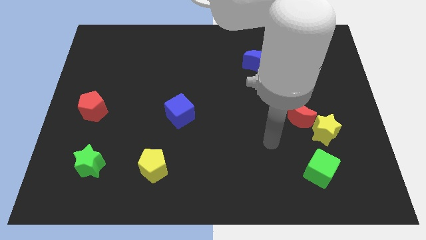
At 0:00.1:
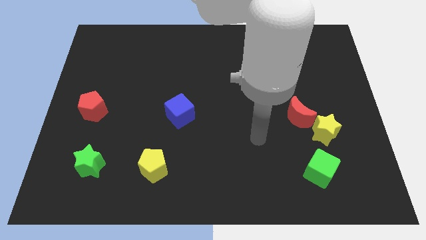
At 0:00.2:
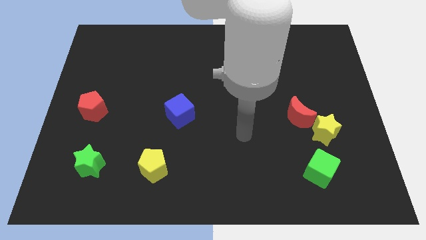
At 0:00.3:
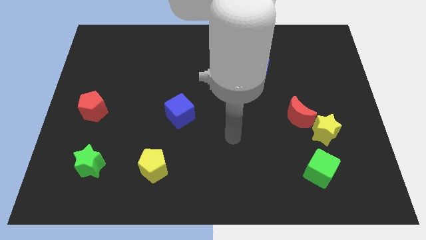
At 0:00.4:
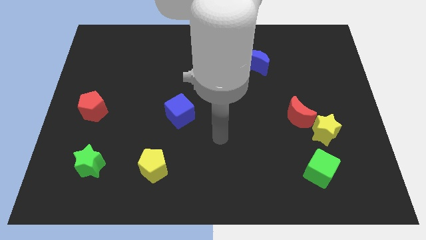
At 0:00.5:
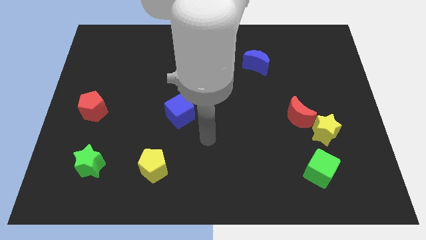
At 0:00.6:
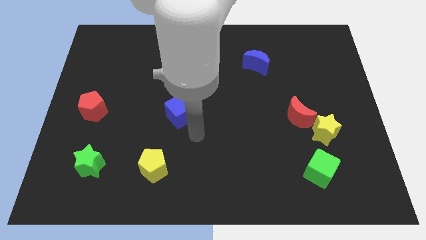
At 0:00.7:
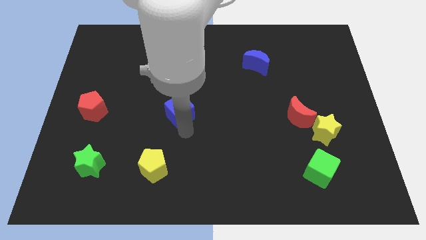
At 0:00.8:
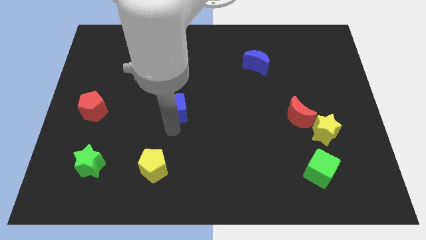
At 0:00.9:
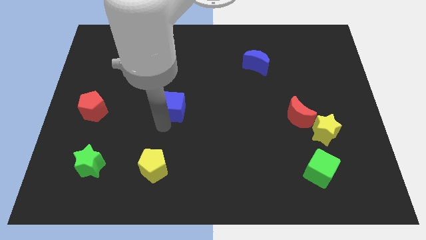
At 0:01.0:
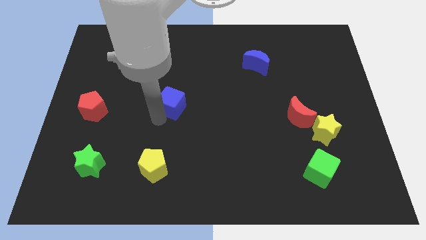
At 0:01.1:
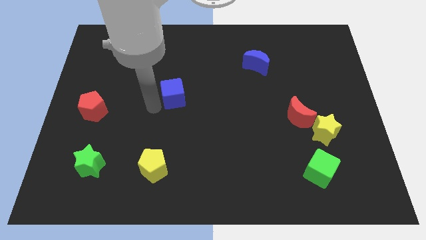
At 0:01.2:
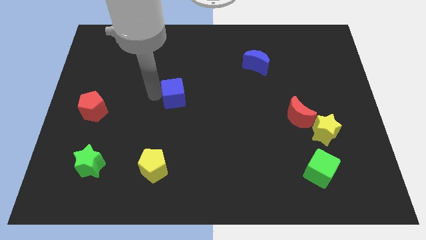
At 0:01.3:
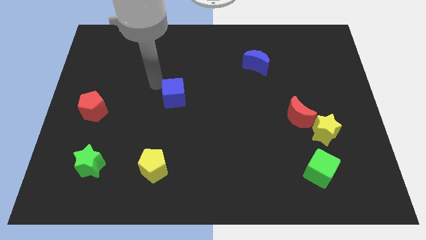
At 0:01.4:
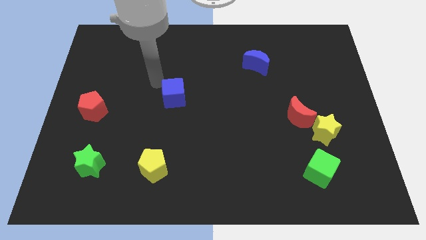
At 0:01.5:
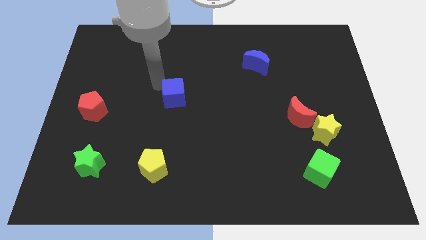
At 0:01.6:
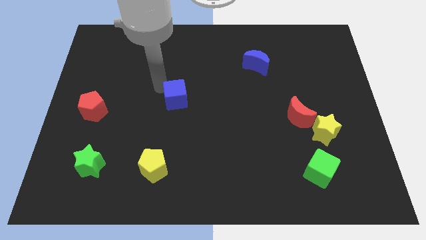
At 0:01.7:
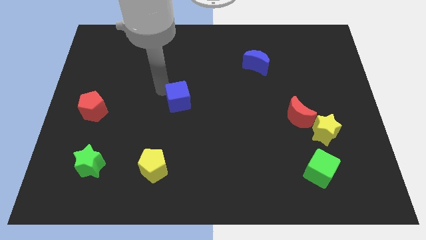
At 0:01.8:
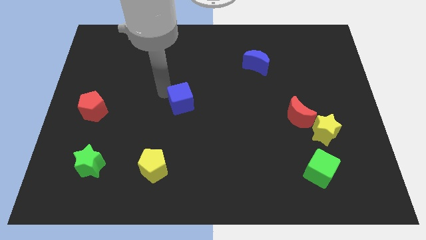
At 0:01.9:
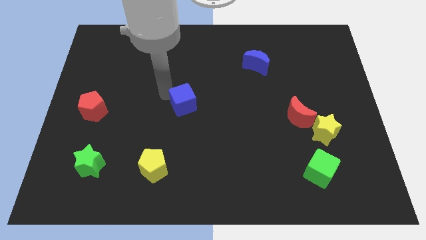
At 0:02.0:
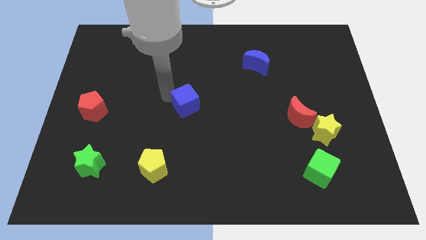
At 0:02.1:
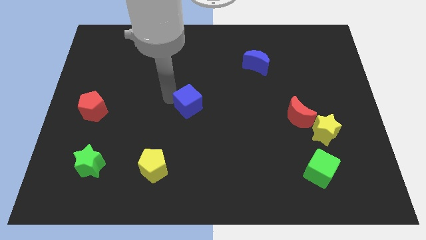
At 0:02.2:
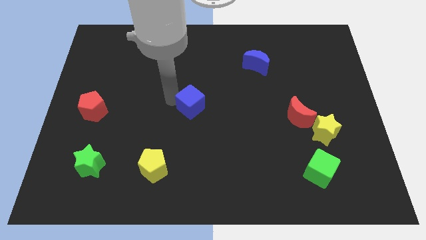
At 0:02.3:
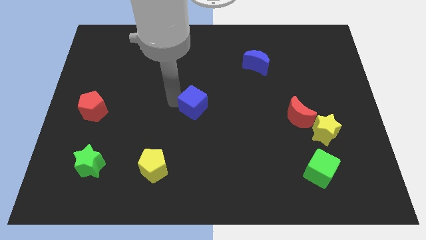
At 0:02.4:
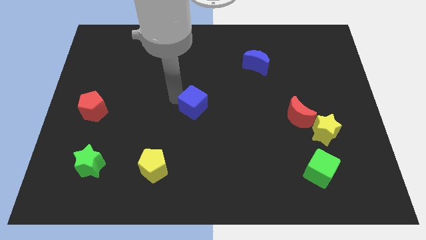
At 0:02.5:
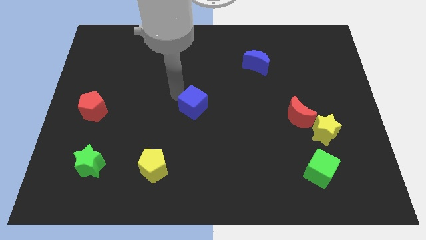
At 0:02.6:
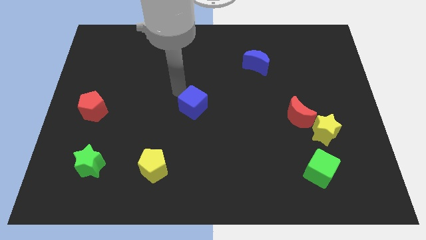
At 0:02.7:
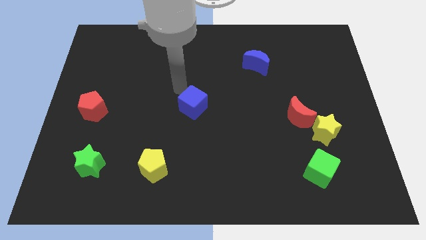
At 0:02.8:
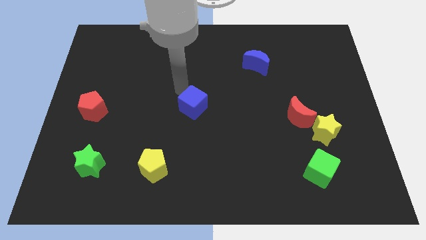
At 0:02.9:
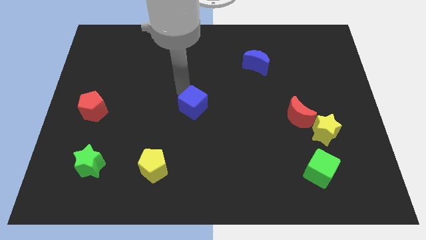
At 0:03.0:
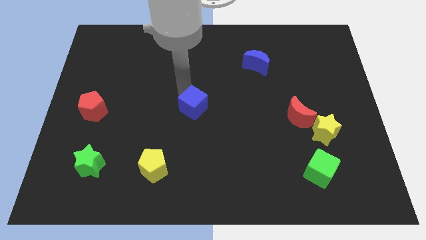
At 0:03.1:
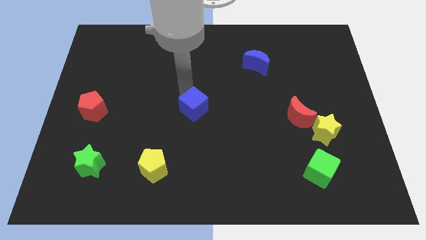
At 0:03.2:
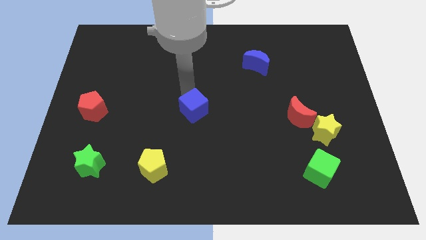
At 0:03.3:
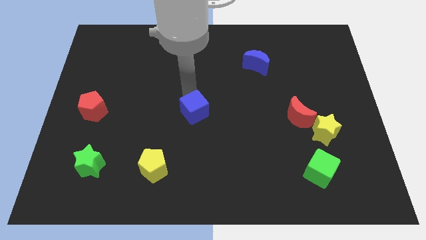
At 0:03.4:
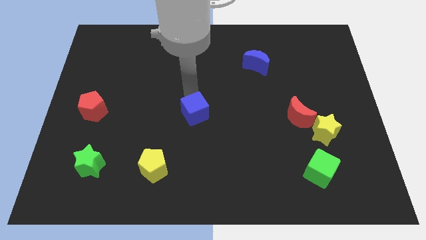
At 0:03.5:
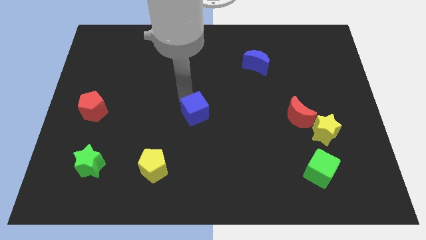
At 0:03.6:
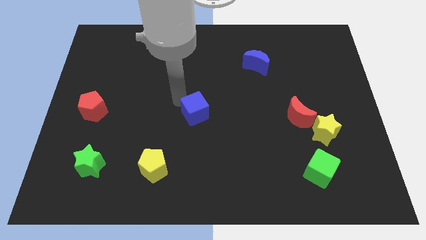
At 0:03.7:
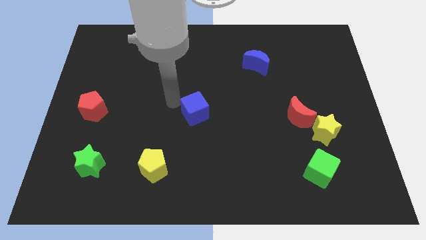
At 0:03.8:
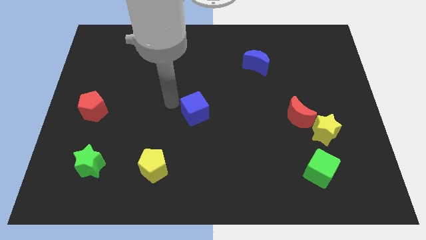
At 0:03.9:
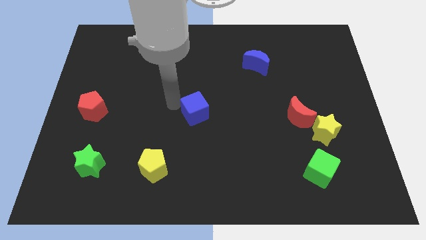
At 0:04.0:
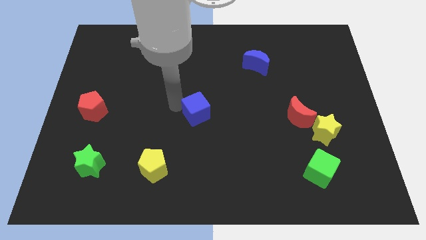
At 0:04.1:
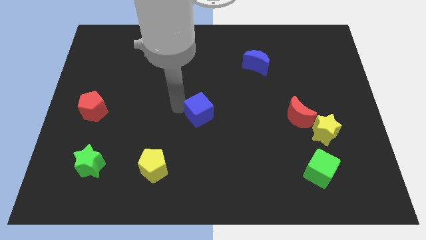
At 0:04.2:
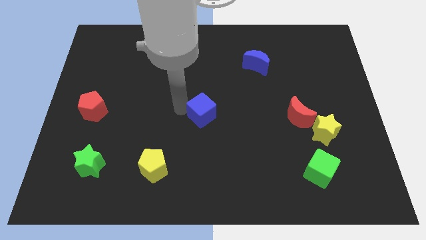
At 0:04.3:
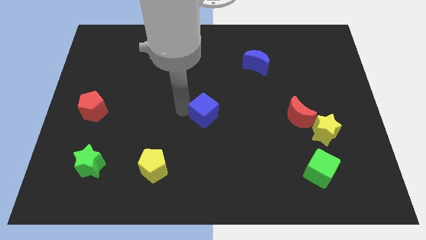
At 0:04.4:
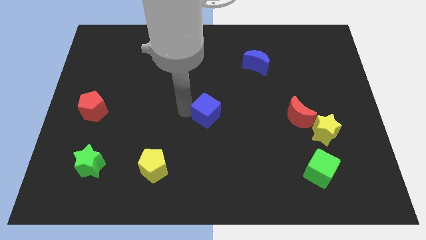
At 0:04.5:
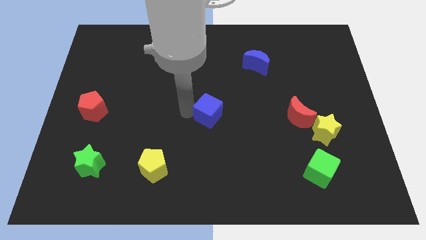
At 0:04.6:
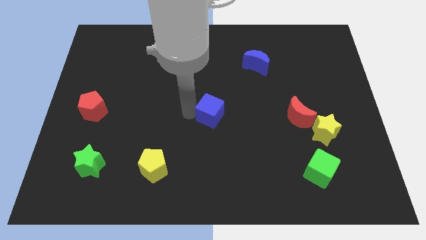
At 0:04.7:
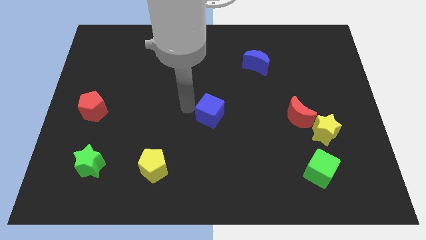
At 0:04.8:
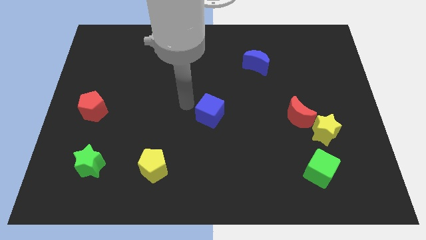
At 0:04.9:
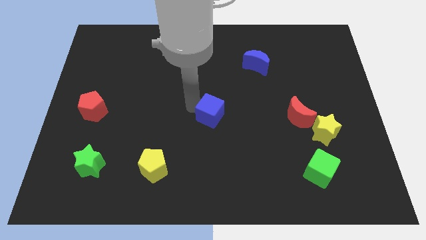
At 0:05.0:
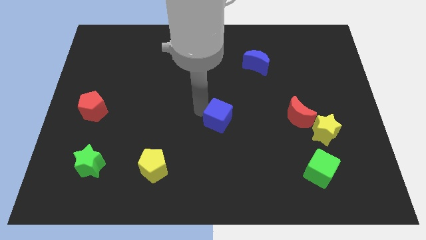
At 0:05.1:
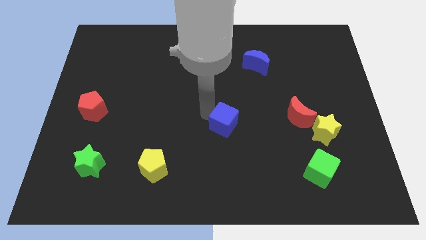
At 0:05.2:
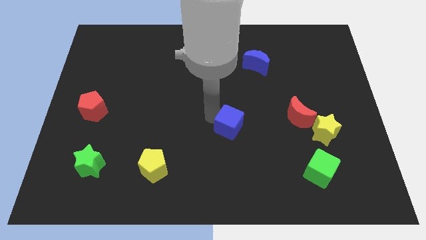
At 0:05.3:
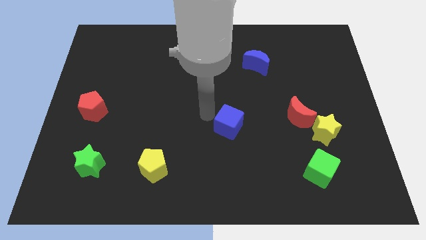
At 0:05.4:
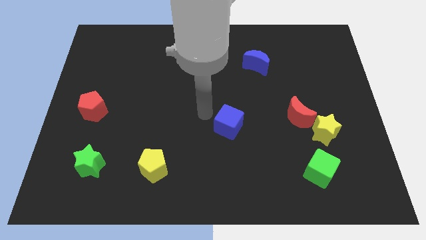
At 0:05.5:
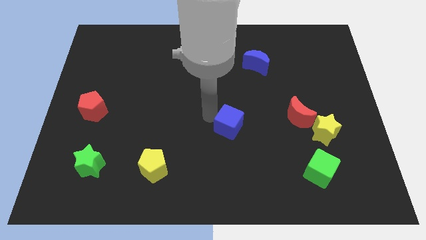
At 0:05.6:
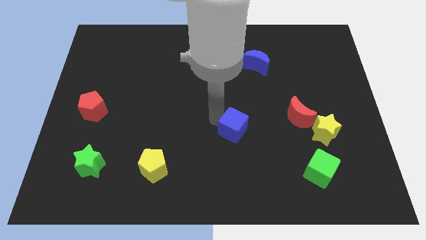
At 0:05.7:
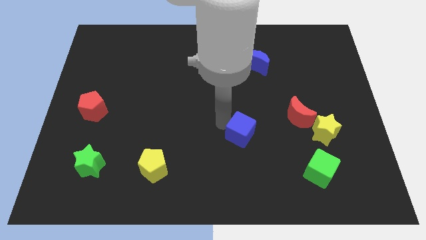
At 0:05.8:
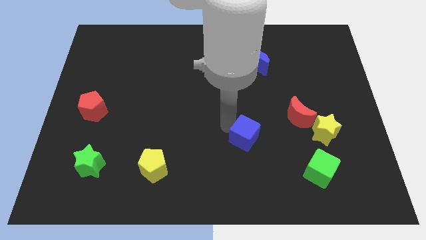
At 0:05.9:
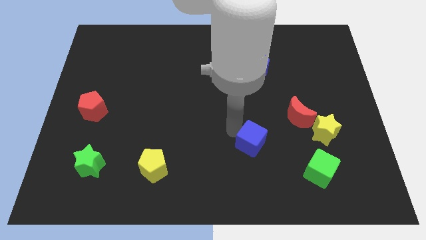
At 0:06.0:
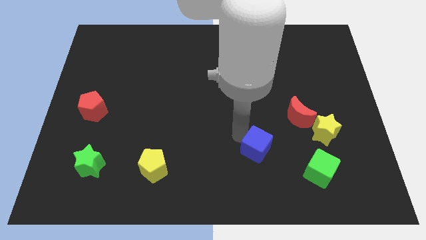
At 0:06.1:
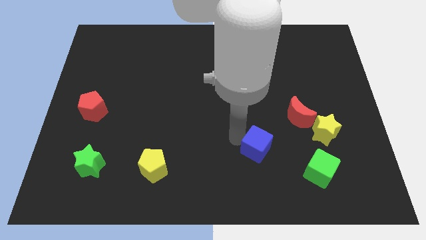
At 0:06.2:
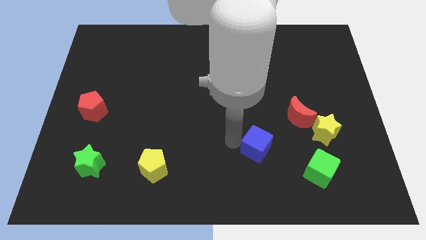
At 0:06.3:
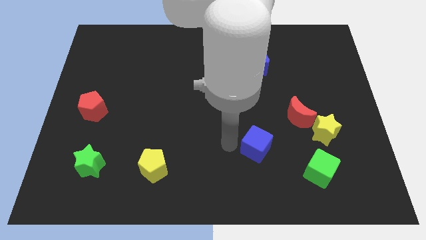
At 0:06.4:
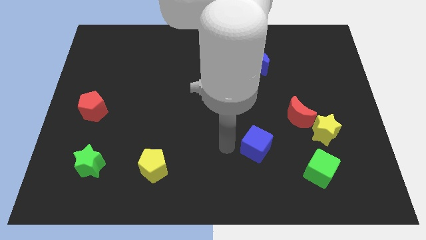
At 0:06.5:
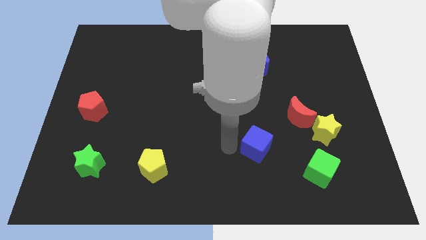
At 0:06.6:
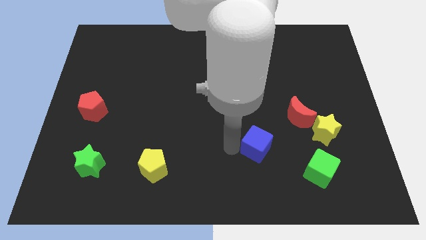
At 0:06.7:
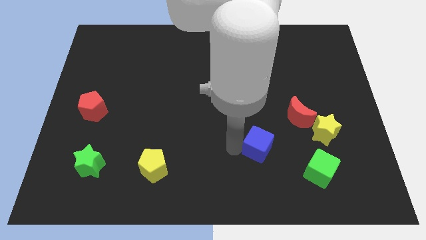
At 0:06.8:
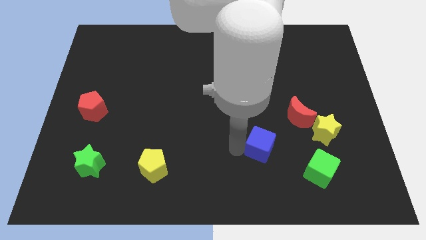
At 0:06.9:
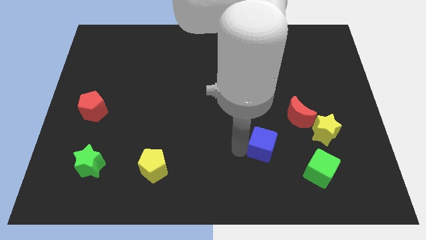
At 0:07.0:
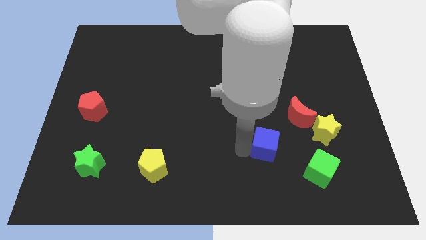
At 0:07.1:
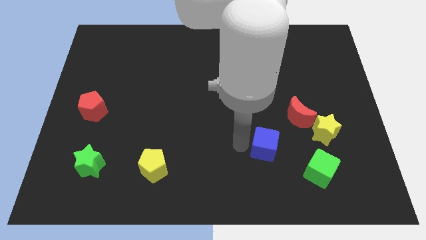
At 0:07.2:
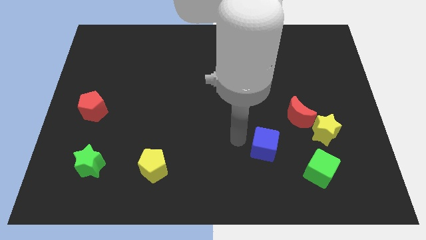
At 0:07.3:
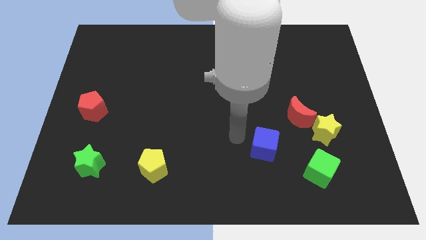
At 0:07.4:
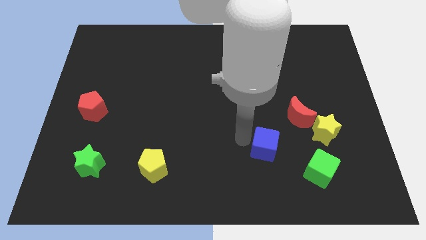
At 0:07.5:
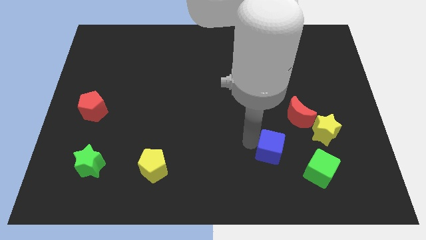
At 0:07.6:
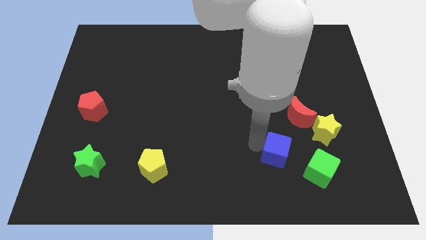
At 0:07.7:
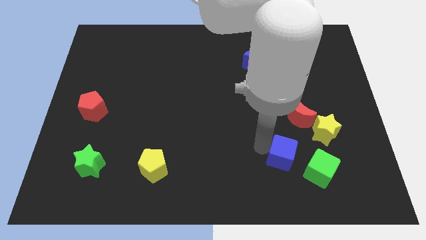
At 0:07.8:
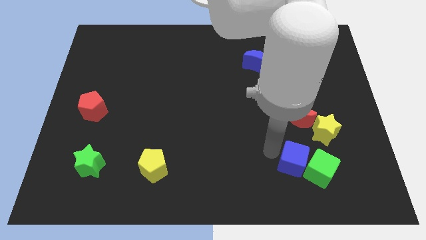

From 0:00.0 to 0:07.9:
move the blue cube close to the green cube
